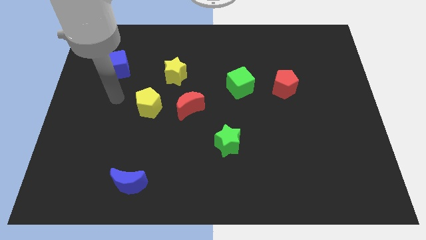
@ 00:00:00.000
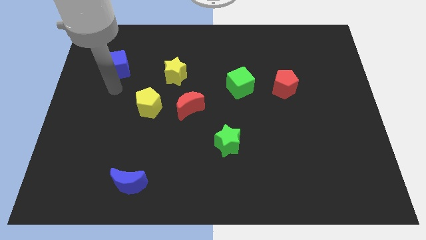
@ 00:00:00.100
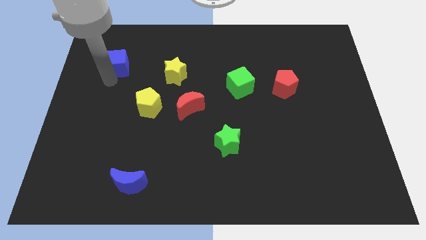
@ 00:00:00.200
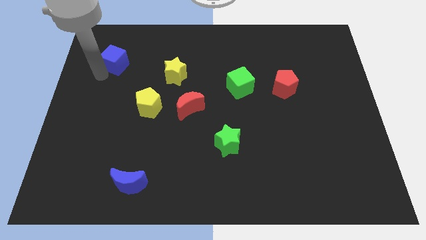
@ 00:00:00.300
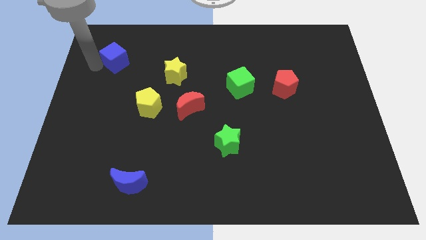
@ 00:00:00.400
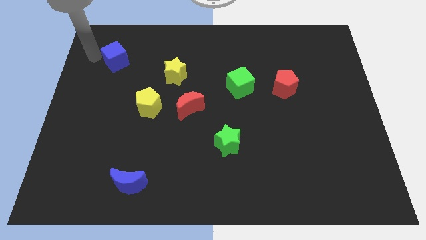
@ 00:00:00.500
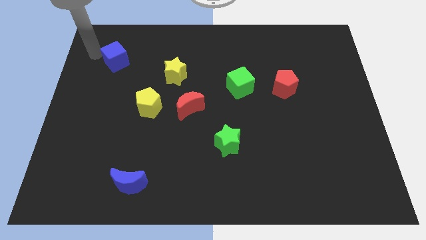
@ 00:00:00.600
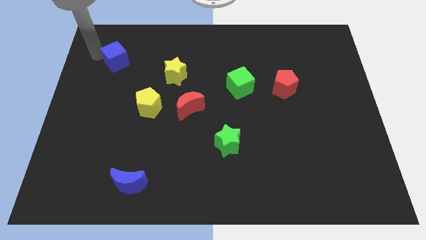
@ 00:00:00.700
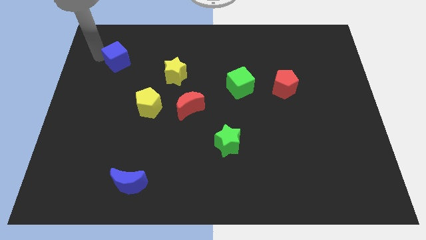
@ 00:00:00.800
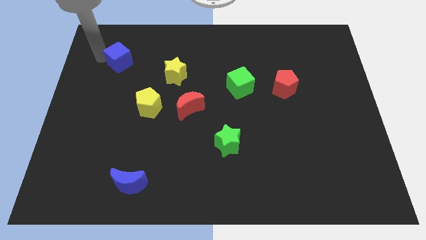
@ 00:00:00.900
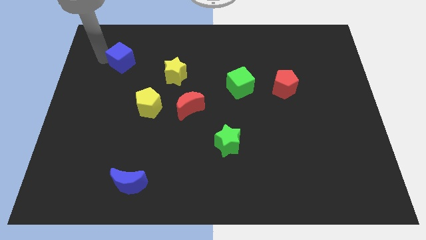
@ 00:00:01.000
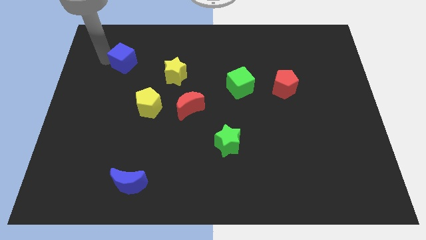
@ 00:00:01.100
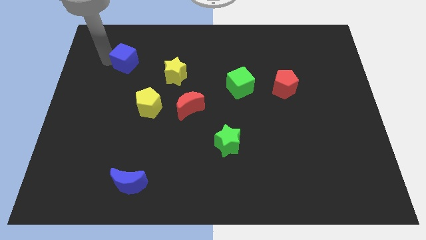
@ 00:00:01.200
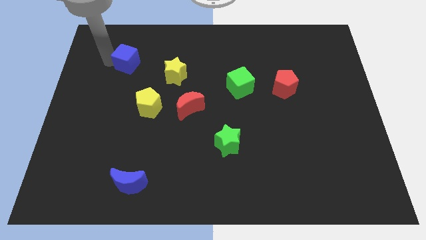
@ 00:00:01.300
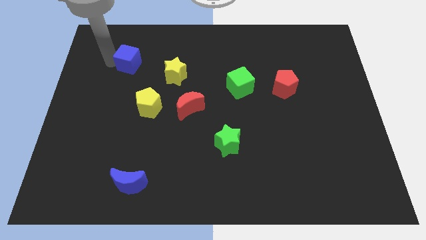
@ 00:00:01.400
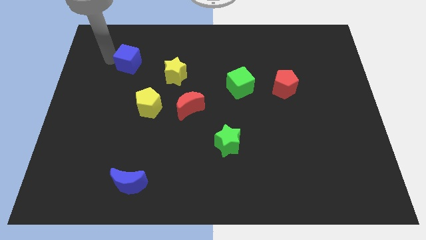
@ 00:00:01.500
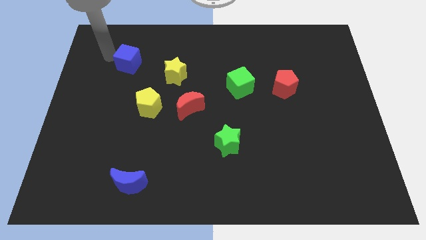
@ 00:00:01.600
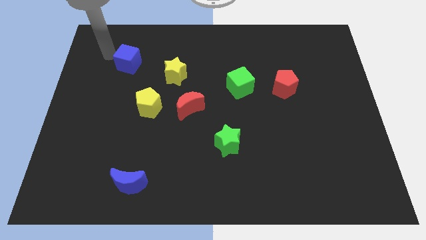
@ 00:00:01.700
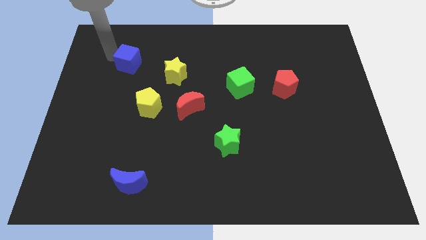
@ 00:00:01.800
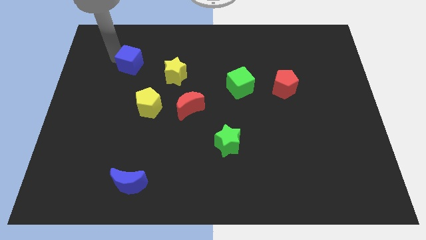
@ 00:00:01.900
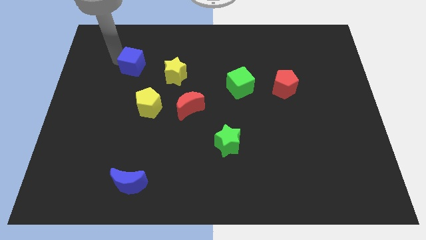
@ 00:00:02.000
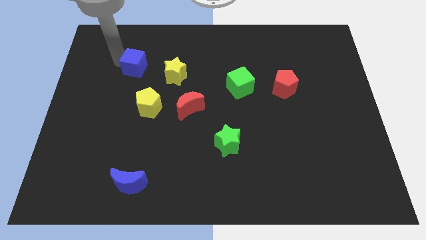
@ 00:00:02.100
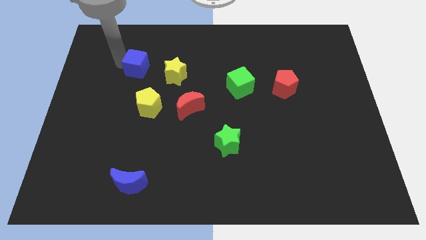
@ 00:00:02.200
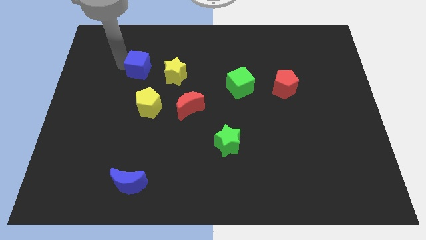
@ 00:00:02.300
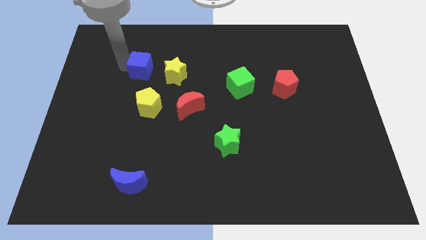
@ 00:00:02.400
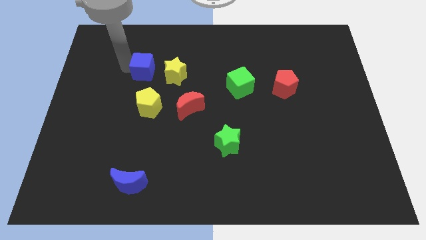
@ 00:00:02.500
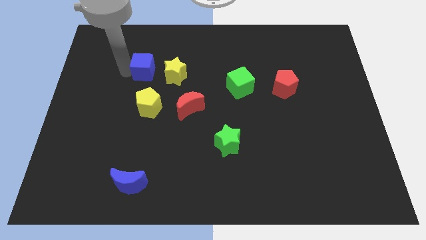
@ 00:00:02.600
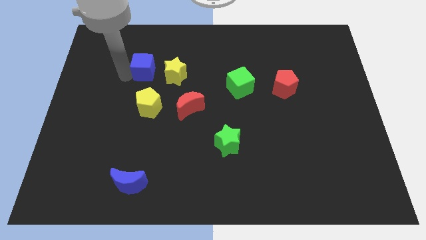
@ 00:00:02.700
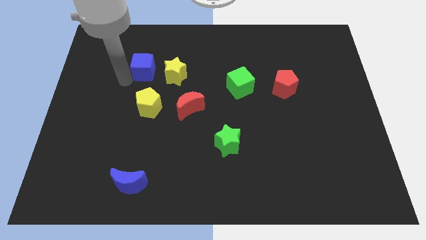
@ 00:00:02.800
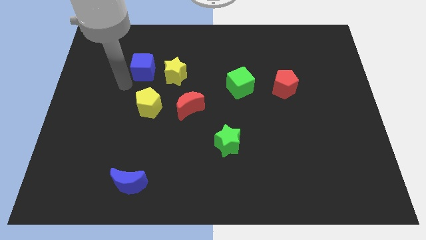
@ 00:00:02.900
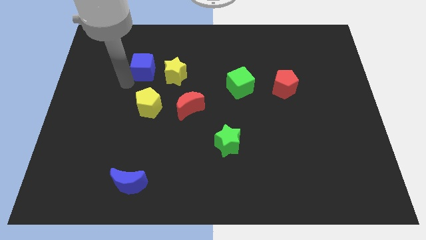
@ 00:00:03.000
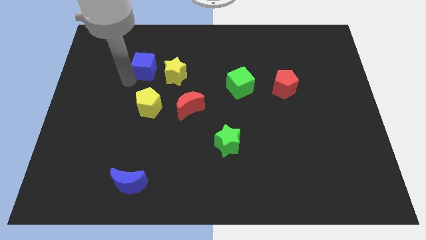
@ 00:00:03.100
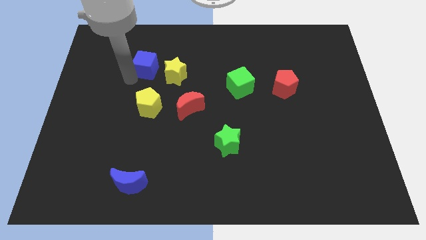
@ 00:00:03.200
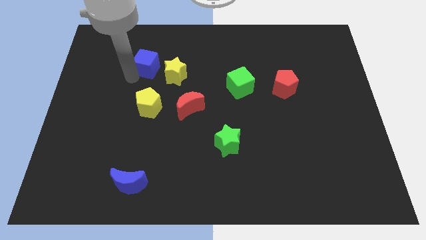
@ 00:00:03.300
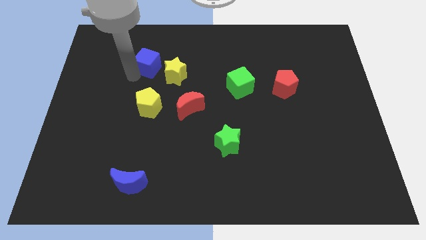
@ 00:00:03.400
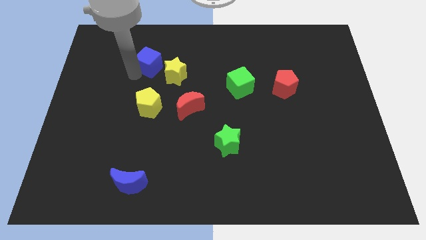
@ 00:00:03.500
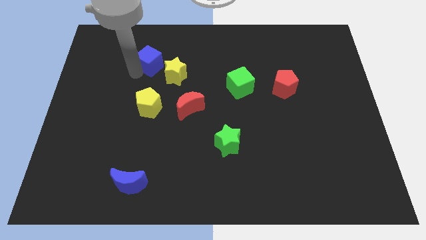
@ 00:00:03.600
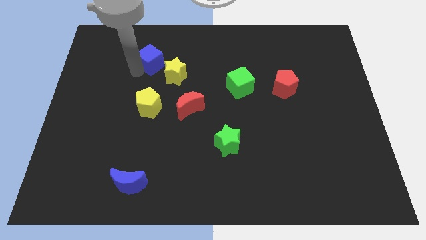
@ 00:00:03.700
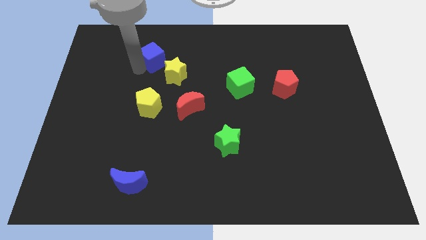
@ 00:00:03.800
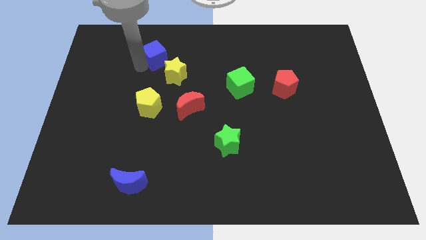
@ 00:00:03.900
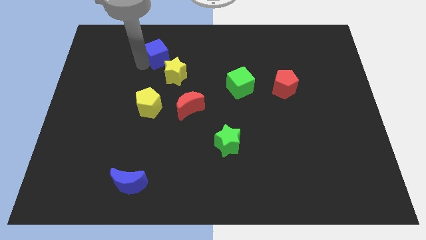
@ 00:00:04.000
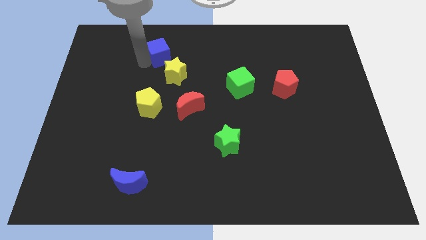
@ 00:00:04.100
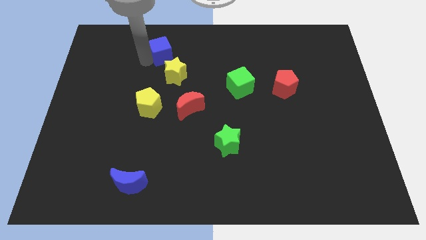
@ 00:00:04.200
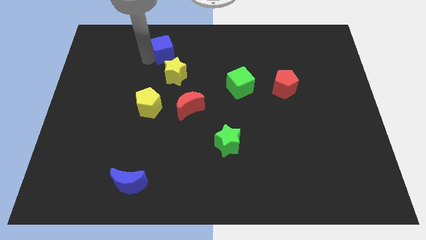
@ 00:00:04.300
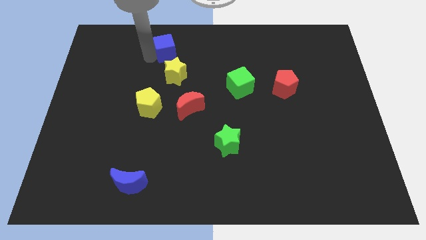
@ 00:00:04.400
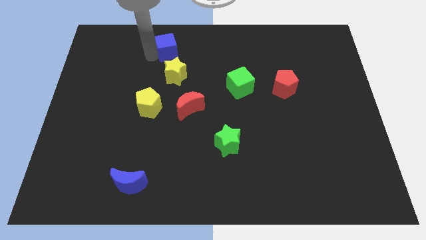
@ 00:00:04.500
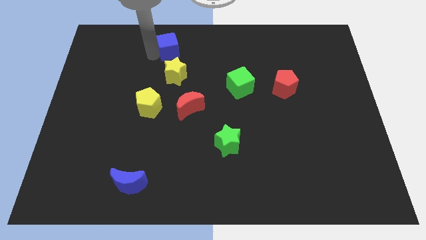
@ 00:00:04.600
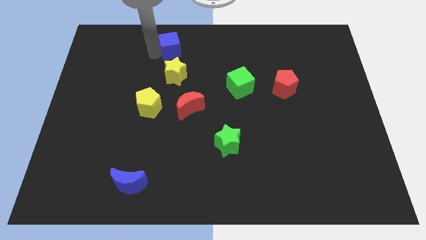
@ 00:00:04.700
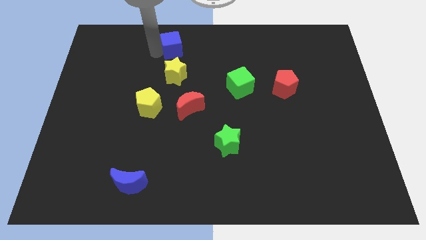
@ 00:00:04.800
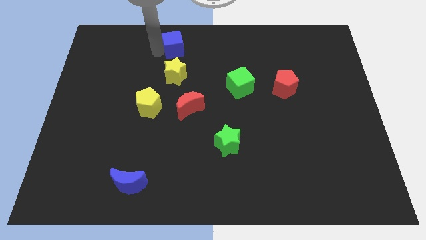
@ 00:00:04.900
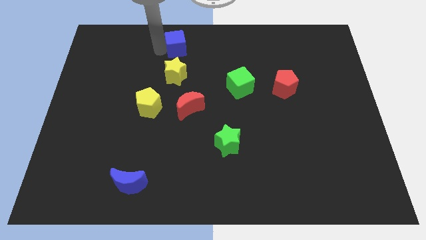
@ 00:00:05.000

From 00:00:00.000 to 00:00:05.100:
slide the blue cube to the top side

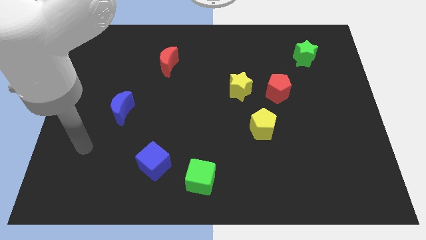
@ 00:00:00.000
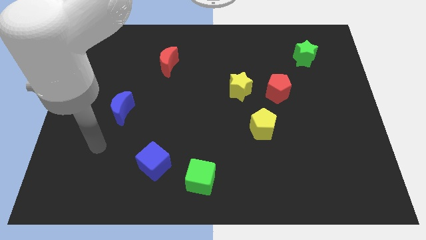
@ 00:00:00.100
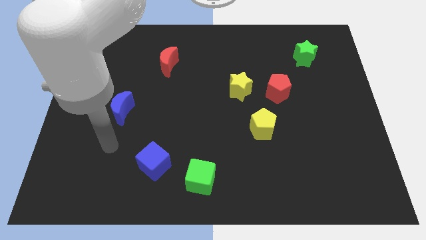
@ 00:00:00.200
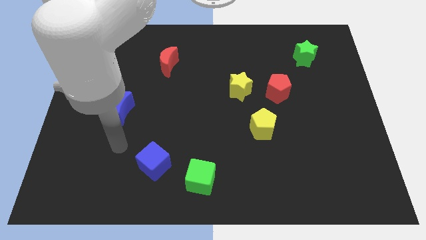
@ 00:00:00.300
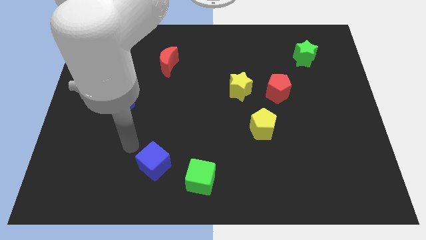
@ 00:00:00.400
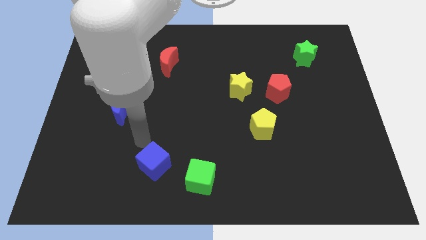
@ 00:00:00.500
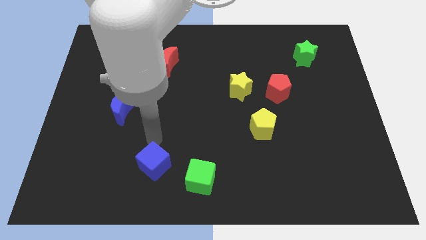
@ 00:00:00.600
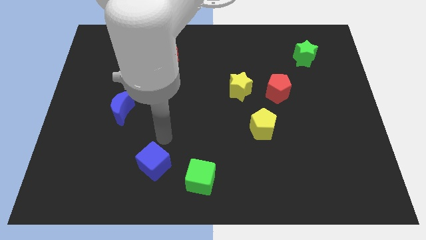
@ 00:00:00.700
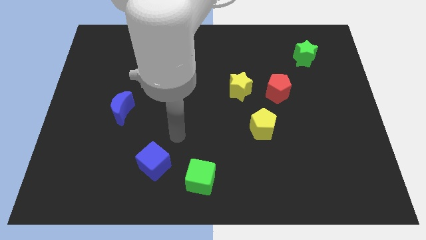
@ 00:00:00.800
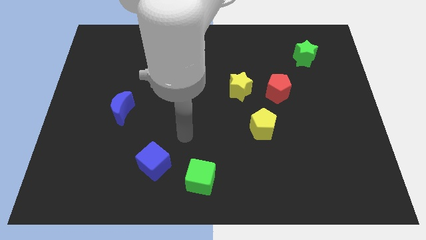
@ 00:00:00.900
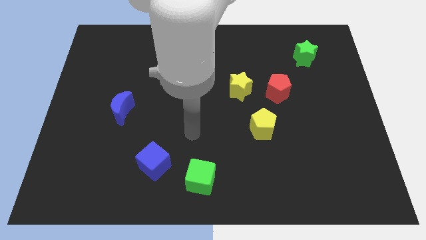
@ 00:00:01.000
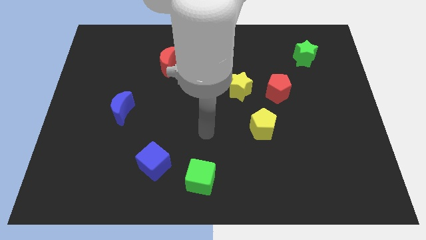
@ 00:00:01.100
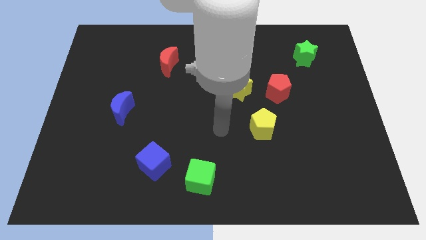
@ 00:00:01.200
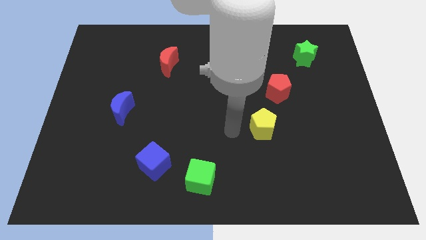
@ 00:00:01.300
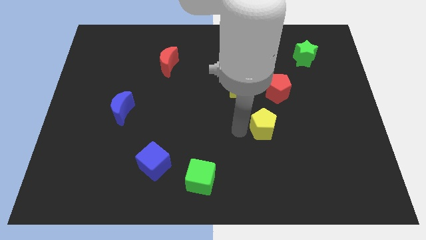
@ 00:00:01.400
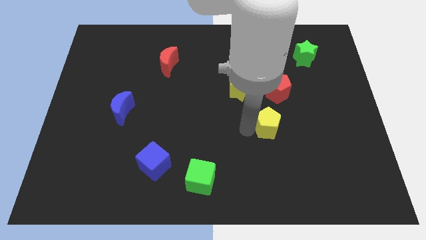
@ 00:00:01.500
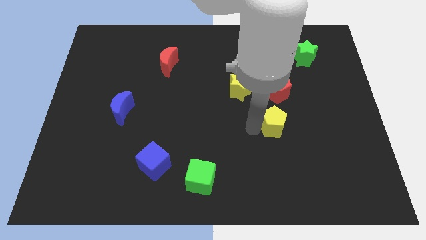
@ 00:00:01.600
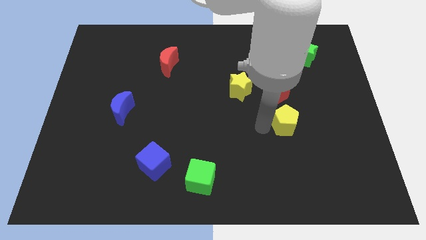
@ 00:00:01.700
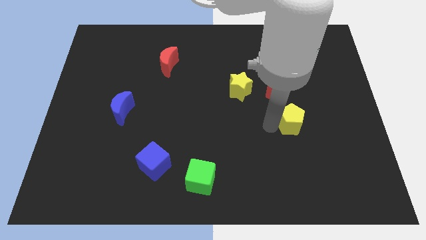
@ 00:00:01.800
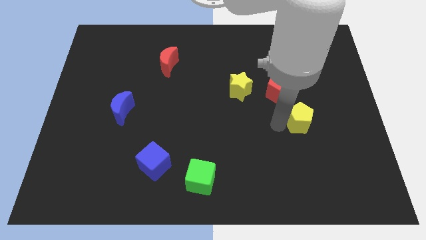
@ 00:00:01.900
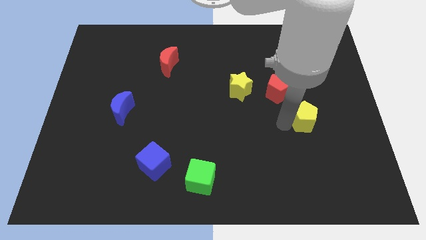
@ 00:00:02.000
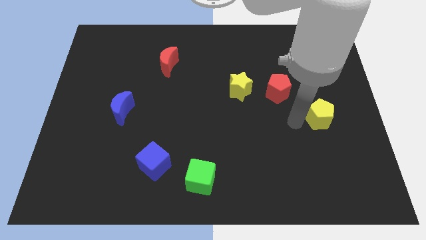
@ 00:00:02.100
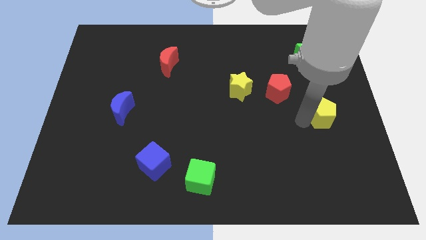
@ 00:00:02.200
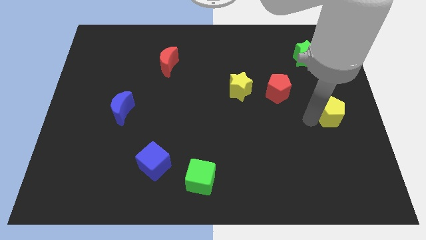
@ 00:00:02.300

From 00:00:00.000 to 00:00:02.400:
slide the yellow pentagon to the right side of the board
